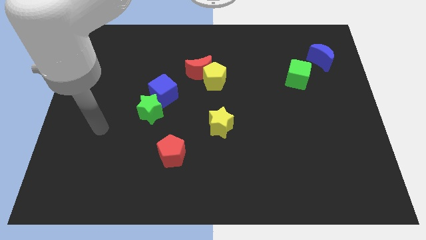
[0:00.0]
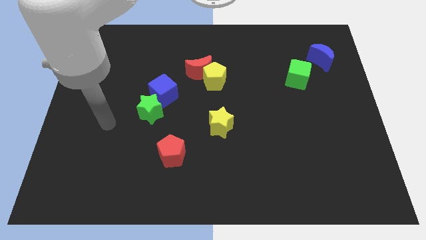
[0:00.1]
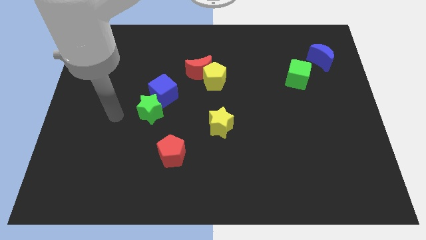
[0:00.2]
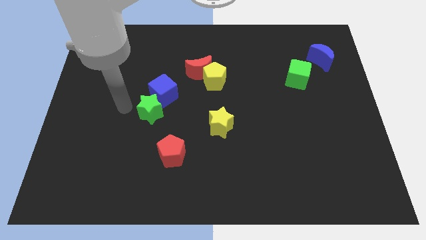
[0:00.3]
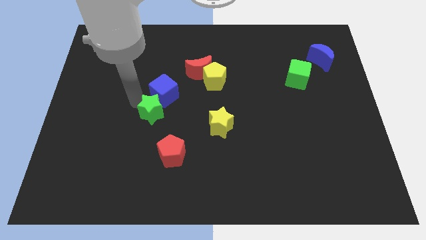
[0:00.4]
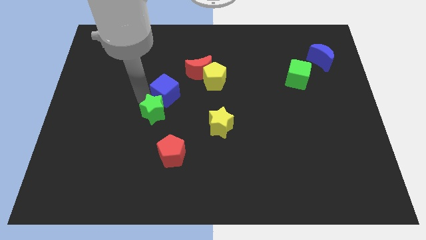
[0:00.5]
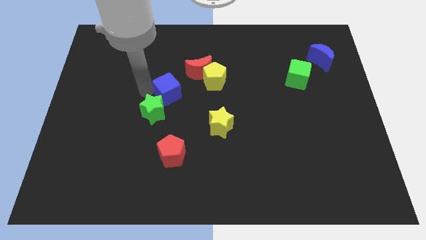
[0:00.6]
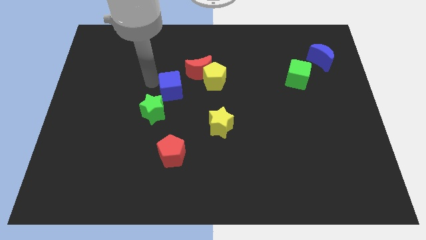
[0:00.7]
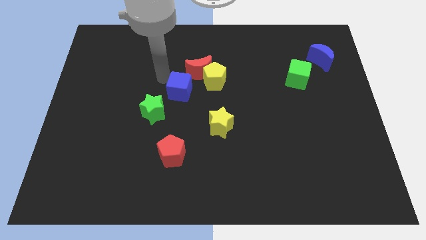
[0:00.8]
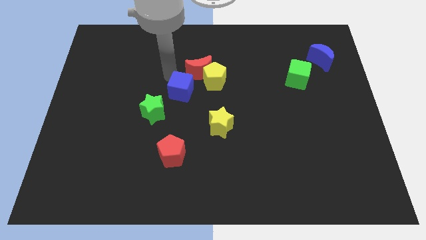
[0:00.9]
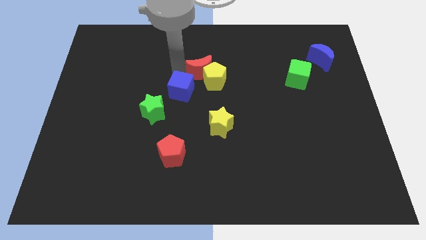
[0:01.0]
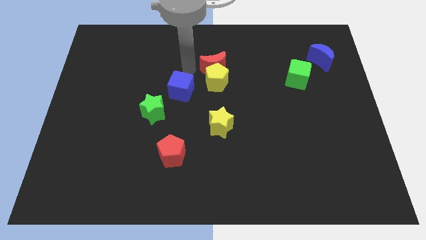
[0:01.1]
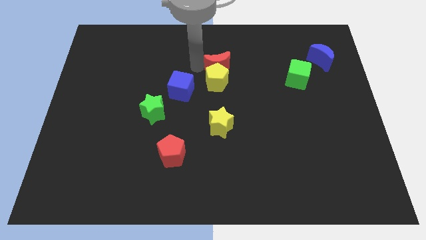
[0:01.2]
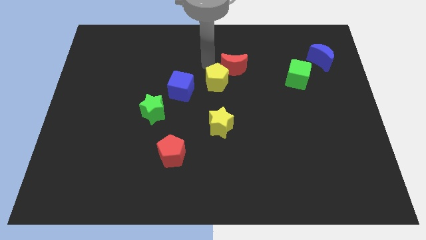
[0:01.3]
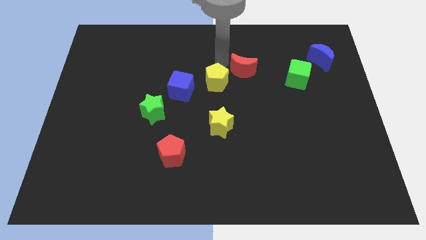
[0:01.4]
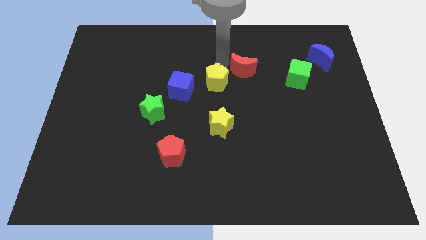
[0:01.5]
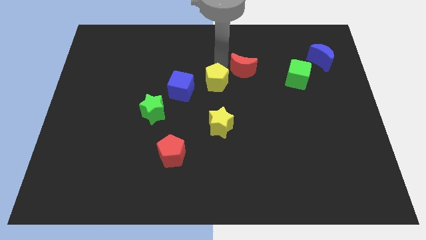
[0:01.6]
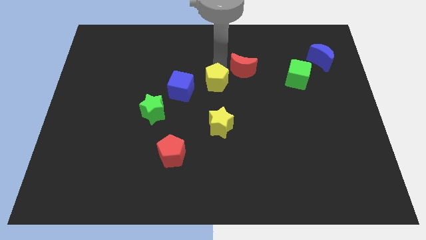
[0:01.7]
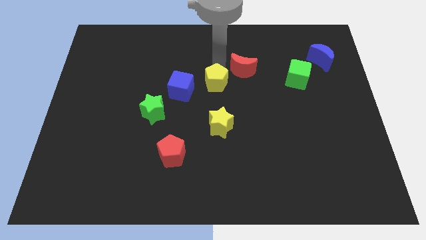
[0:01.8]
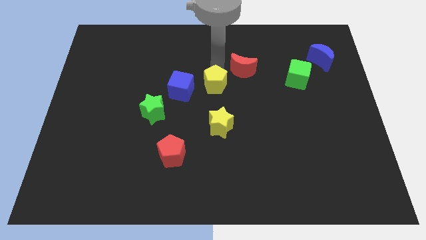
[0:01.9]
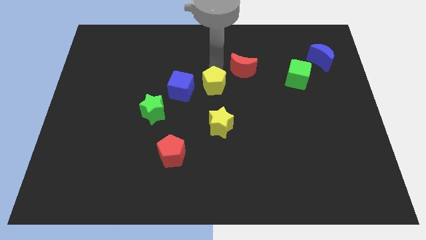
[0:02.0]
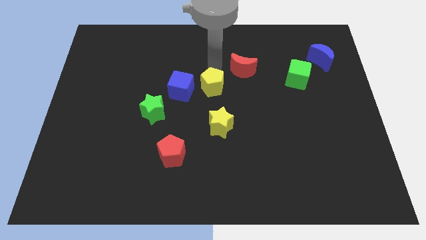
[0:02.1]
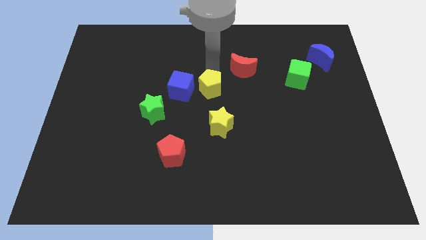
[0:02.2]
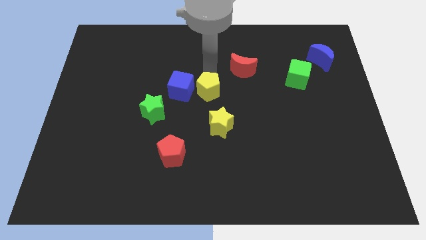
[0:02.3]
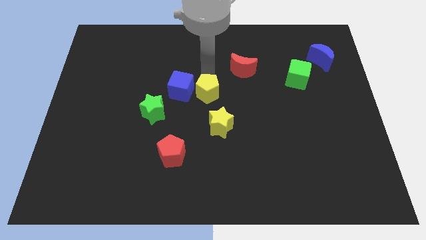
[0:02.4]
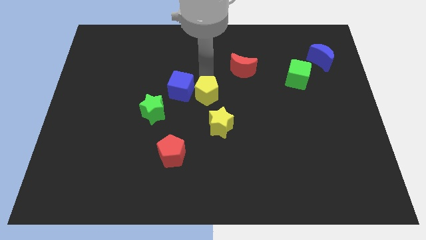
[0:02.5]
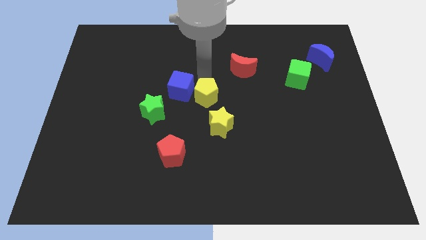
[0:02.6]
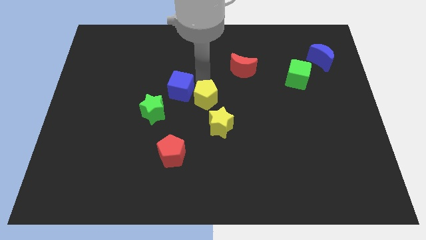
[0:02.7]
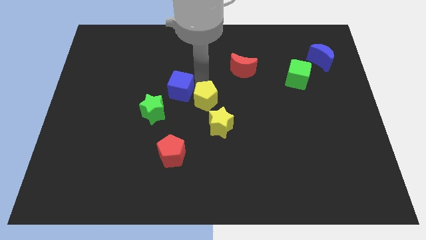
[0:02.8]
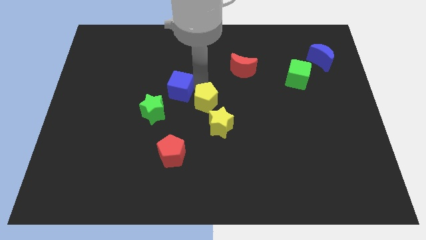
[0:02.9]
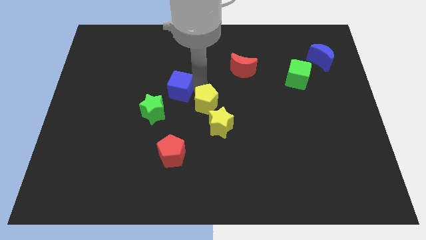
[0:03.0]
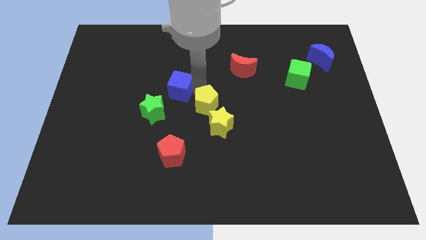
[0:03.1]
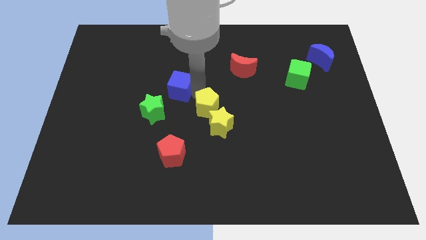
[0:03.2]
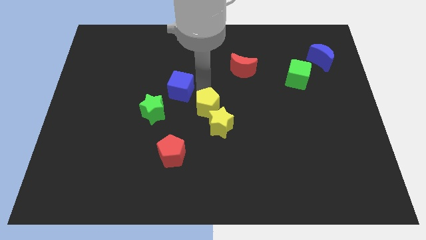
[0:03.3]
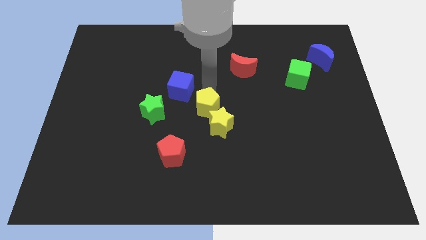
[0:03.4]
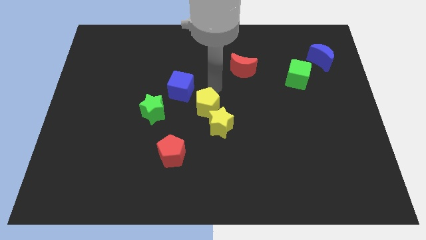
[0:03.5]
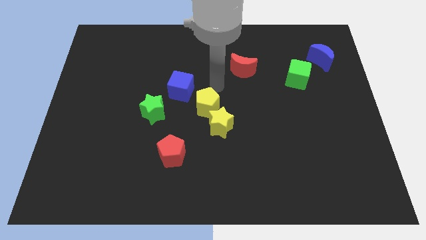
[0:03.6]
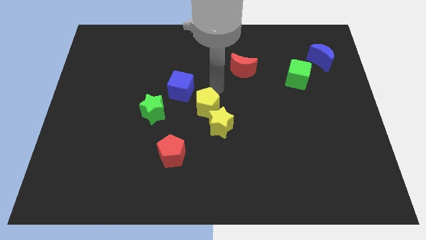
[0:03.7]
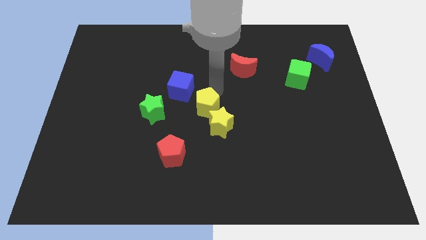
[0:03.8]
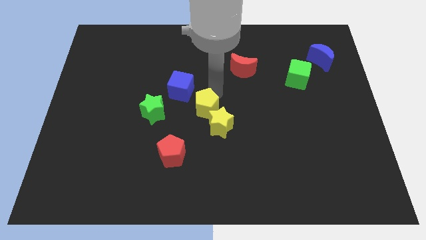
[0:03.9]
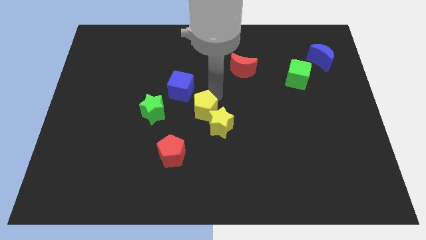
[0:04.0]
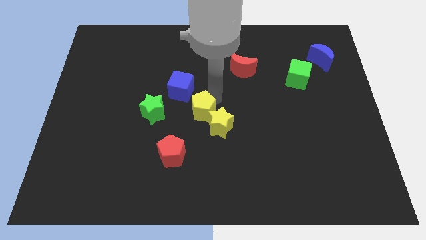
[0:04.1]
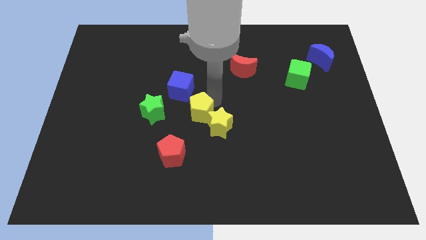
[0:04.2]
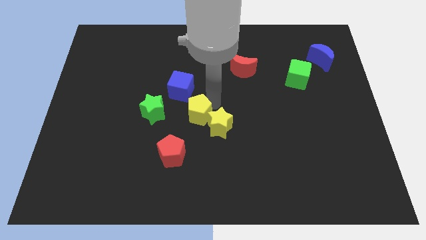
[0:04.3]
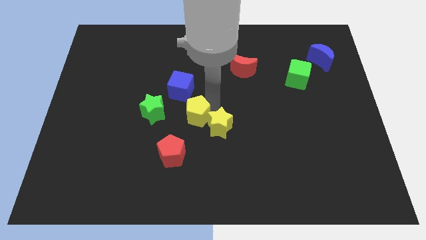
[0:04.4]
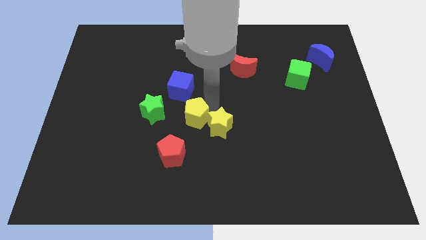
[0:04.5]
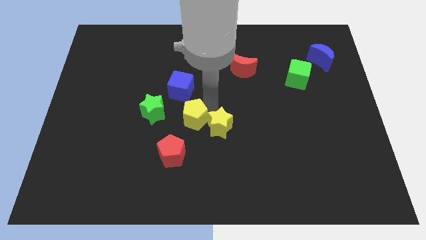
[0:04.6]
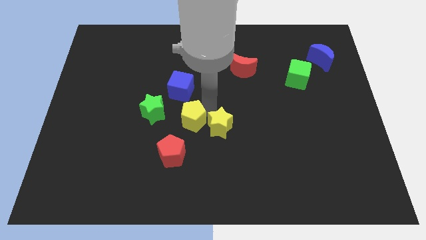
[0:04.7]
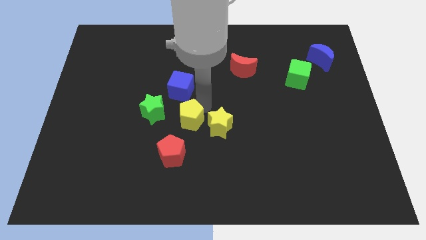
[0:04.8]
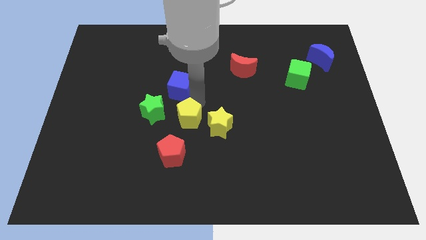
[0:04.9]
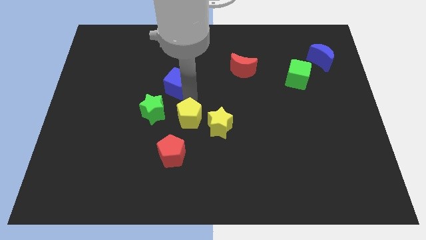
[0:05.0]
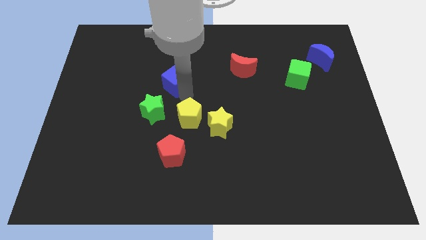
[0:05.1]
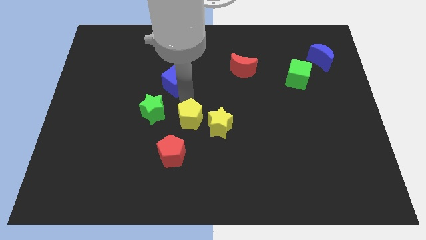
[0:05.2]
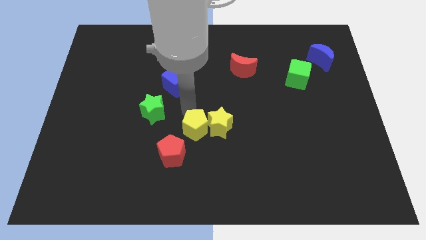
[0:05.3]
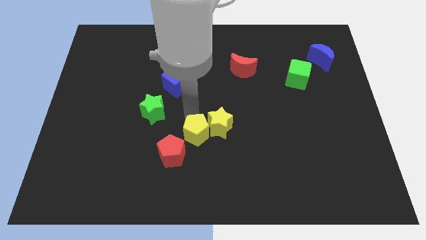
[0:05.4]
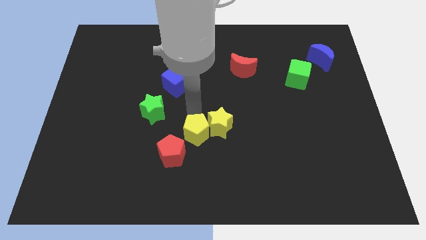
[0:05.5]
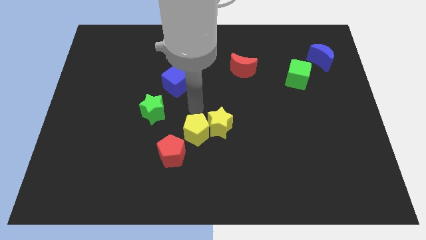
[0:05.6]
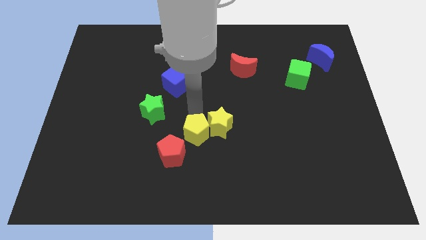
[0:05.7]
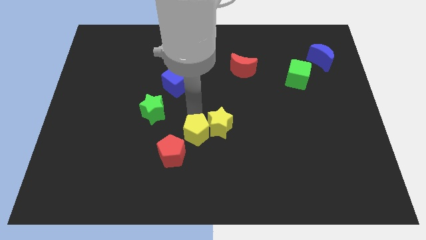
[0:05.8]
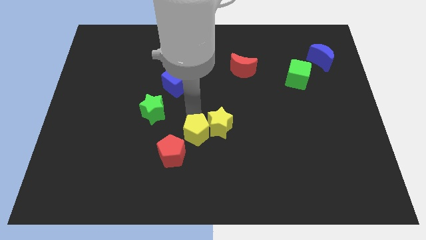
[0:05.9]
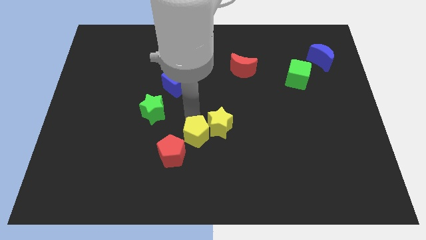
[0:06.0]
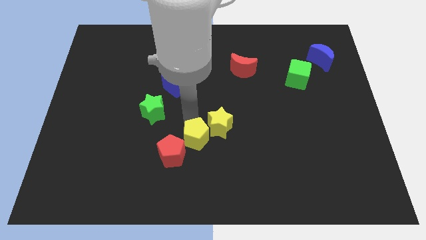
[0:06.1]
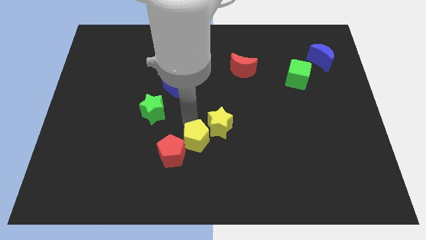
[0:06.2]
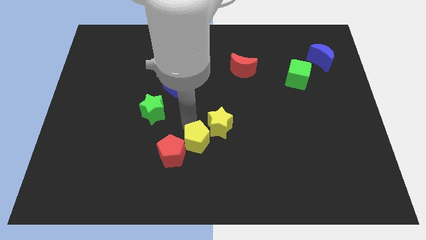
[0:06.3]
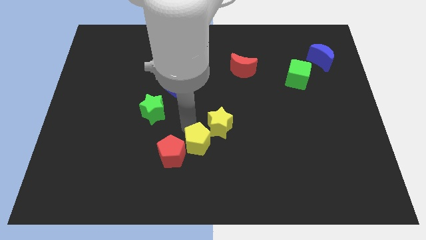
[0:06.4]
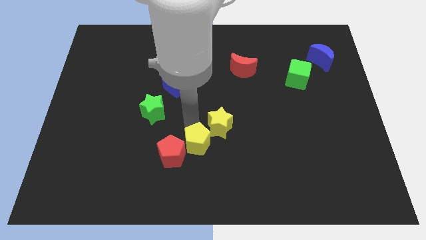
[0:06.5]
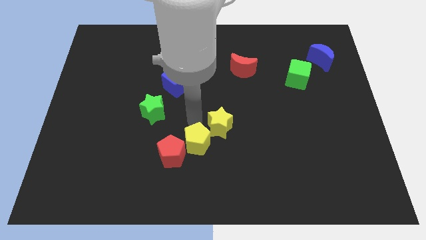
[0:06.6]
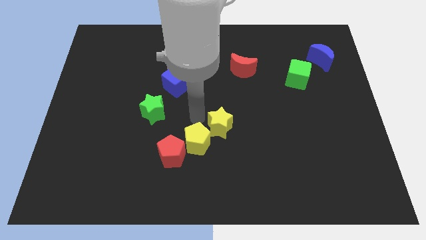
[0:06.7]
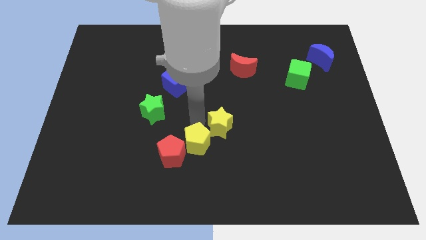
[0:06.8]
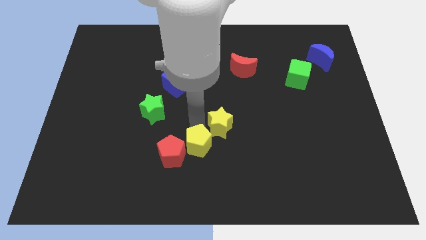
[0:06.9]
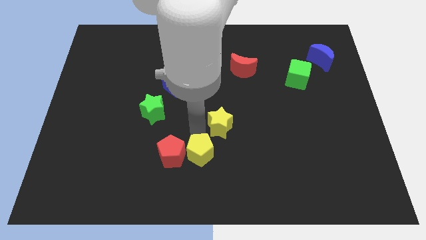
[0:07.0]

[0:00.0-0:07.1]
move the yellow pentagon diagonally down and to the right of the red pentagon
